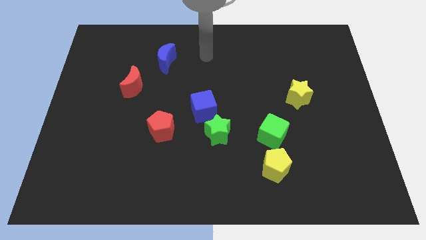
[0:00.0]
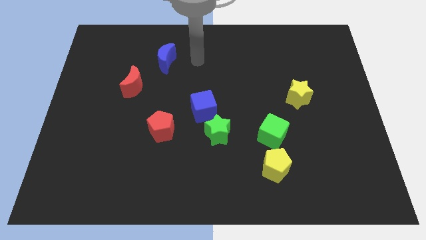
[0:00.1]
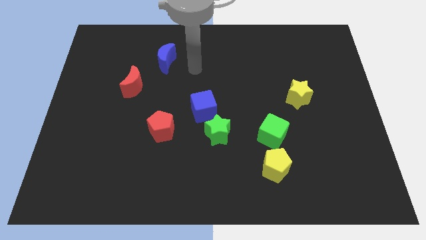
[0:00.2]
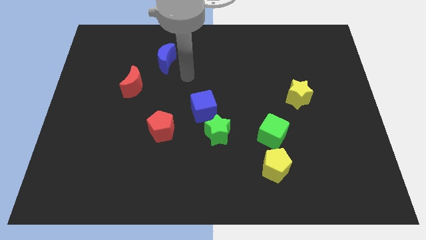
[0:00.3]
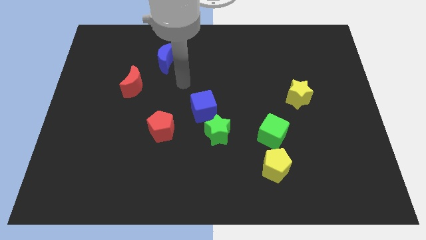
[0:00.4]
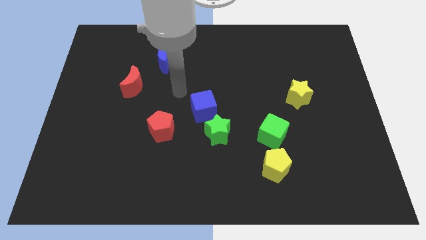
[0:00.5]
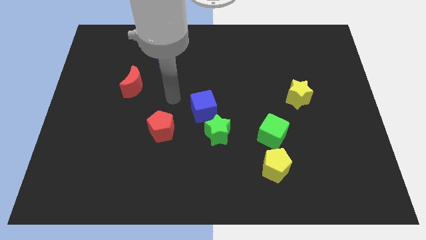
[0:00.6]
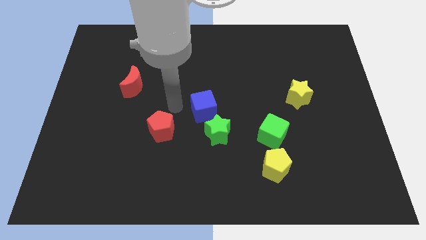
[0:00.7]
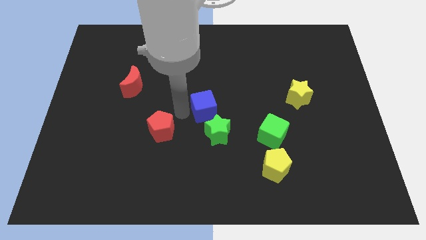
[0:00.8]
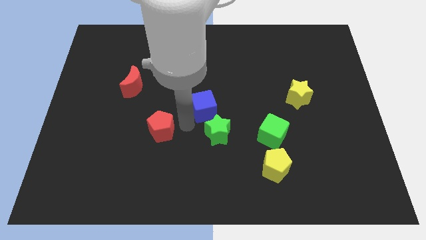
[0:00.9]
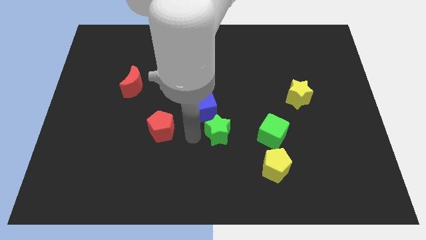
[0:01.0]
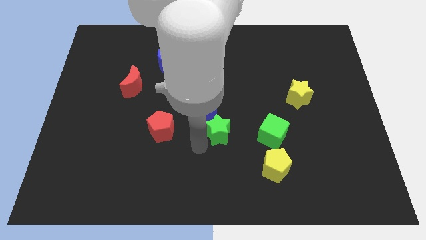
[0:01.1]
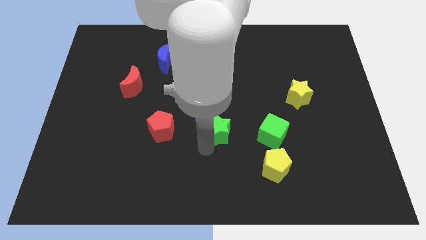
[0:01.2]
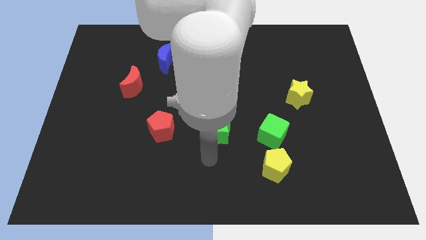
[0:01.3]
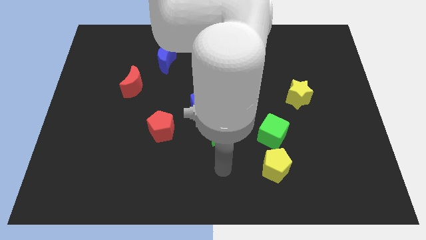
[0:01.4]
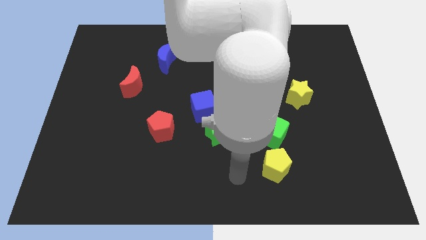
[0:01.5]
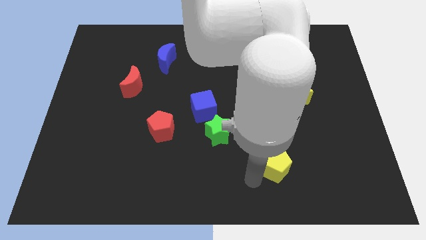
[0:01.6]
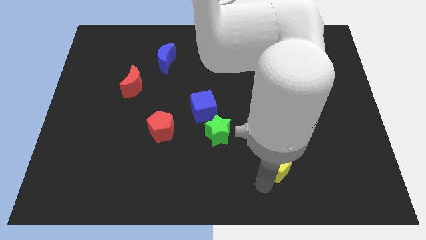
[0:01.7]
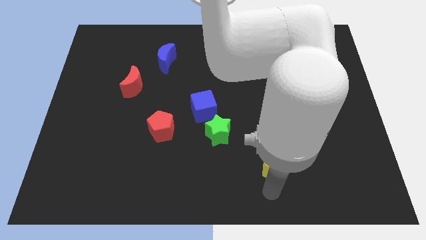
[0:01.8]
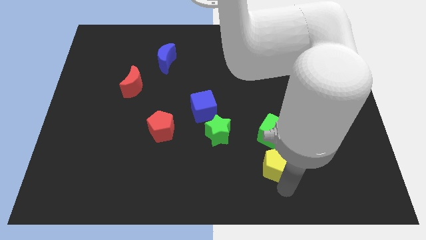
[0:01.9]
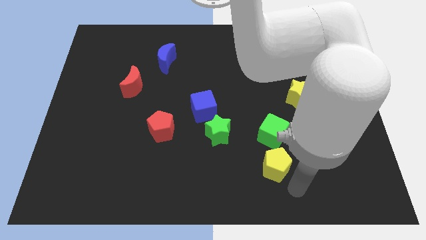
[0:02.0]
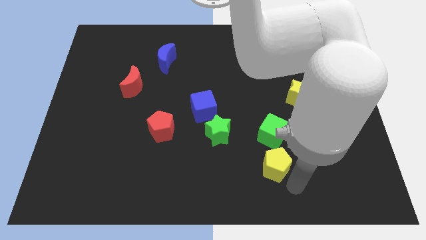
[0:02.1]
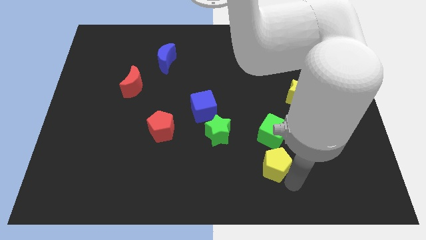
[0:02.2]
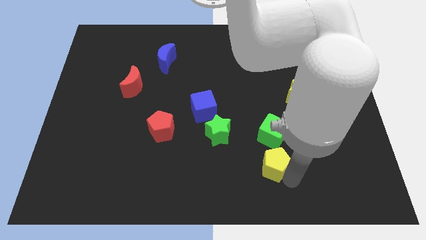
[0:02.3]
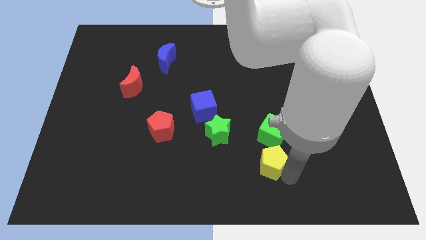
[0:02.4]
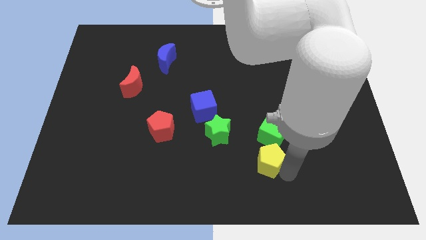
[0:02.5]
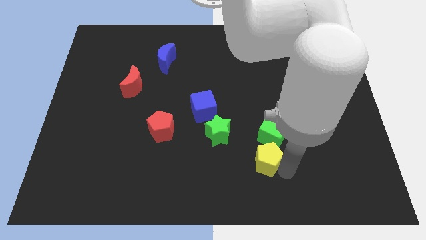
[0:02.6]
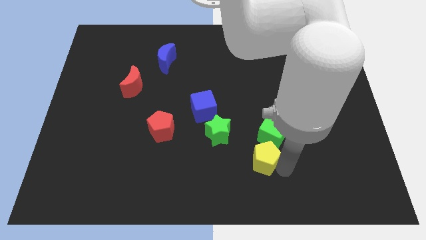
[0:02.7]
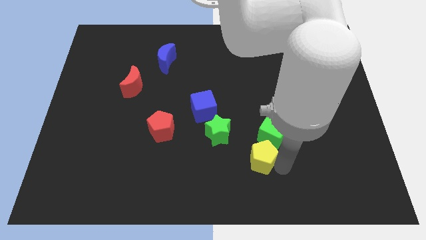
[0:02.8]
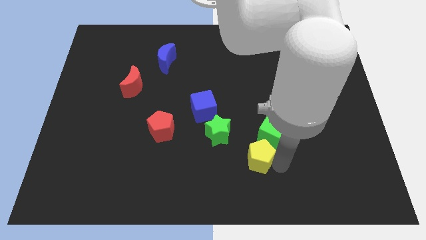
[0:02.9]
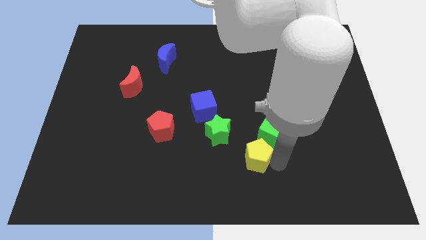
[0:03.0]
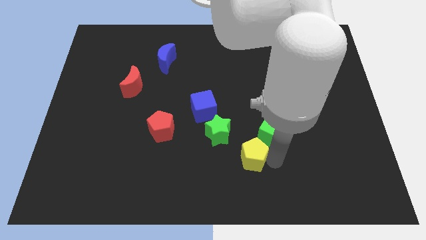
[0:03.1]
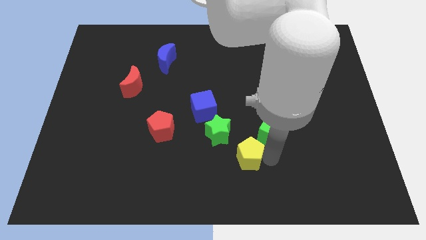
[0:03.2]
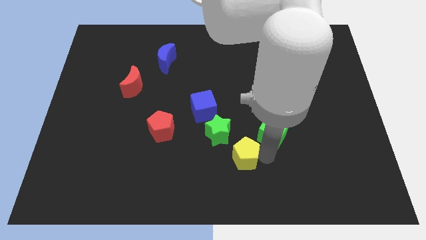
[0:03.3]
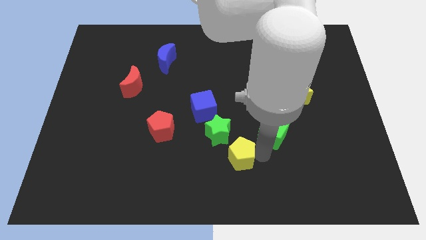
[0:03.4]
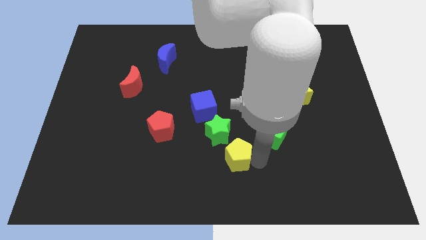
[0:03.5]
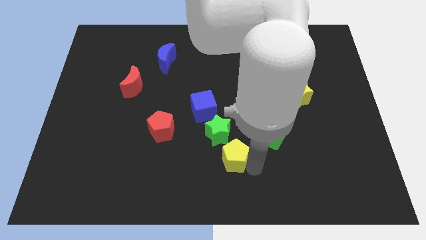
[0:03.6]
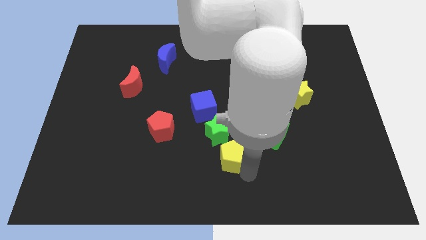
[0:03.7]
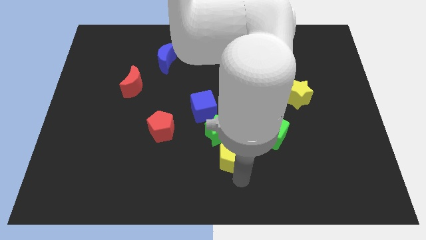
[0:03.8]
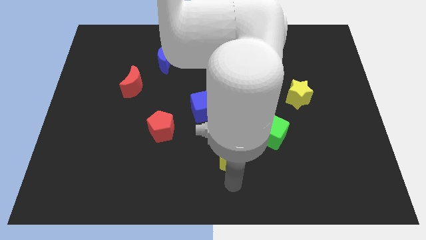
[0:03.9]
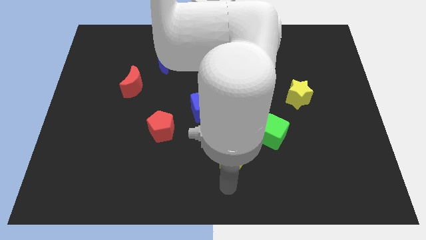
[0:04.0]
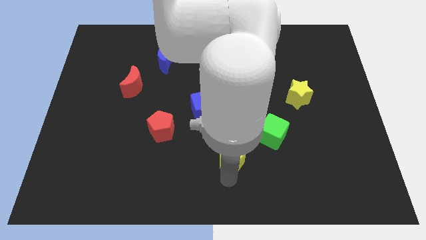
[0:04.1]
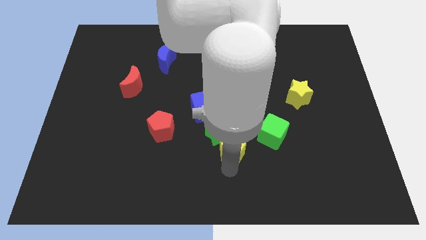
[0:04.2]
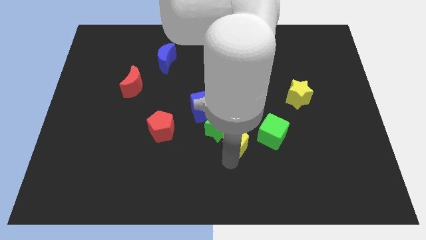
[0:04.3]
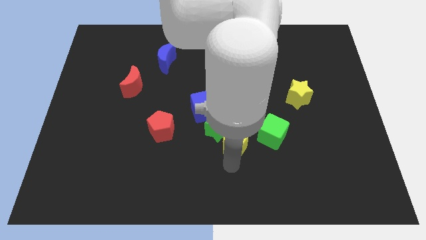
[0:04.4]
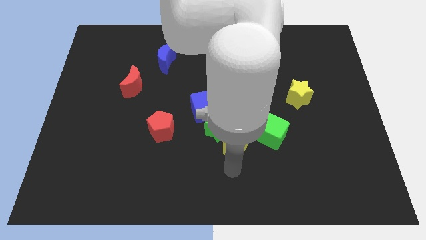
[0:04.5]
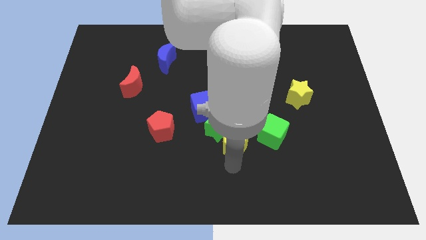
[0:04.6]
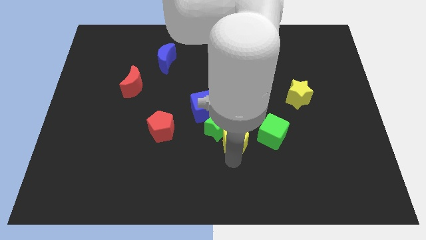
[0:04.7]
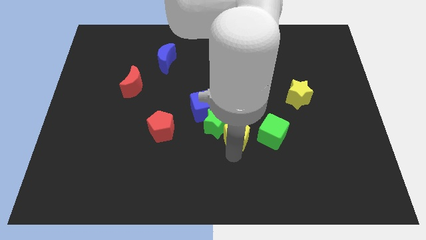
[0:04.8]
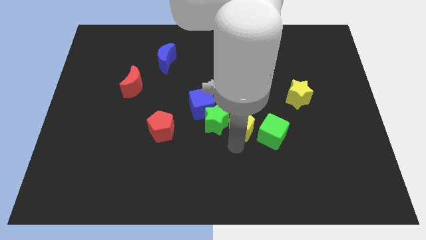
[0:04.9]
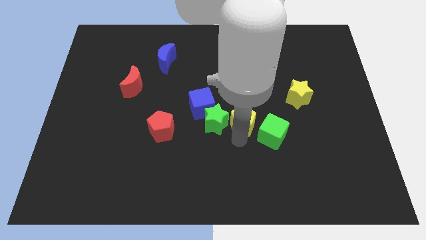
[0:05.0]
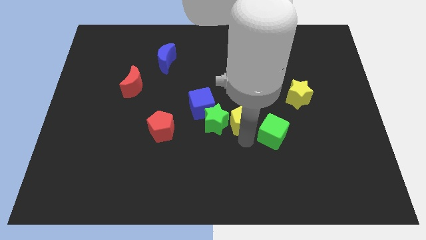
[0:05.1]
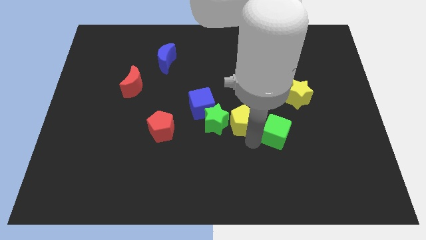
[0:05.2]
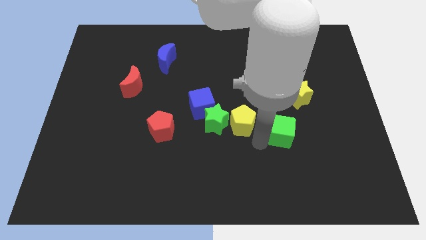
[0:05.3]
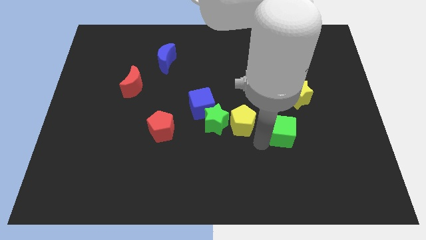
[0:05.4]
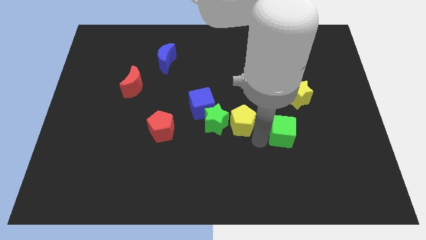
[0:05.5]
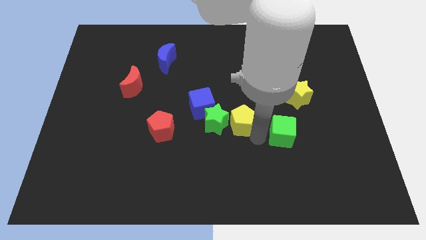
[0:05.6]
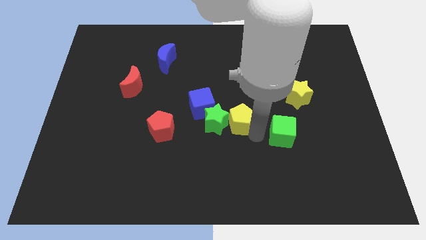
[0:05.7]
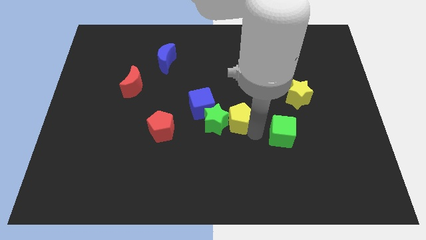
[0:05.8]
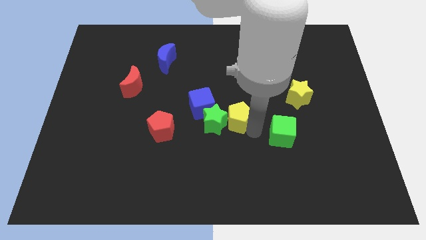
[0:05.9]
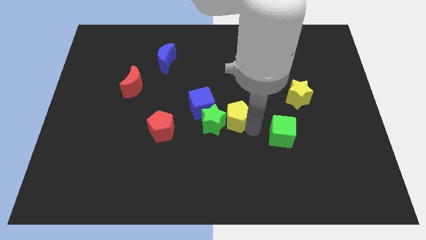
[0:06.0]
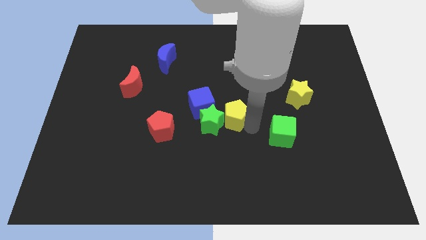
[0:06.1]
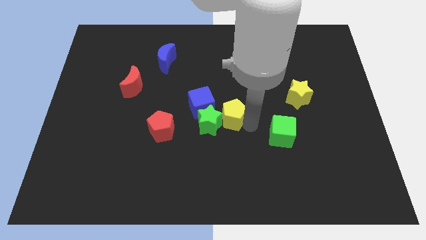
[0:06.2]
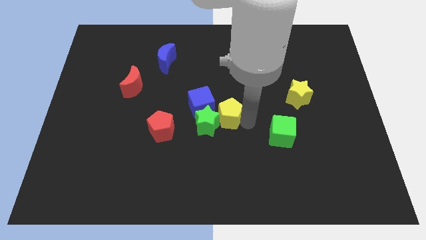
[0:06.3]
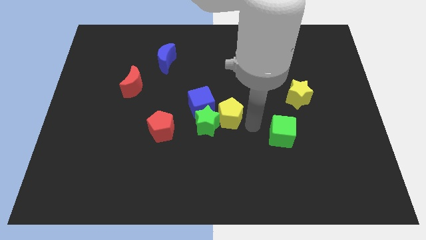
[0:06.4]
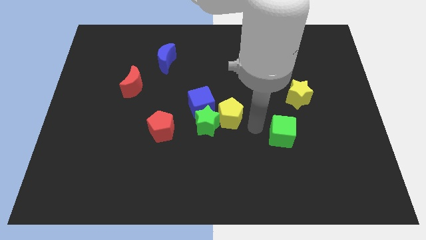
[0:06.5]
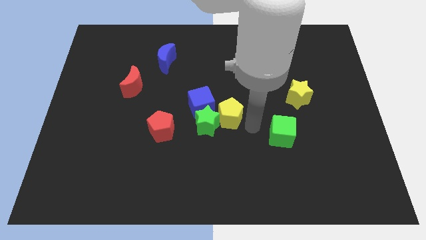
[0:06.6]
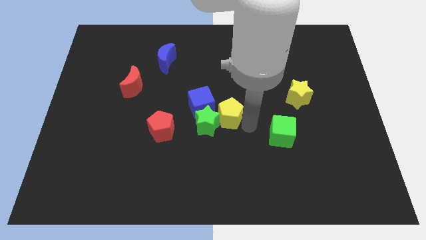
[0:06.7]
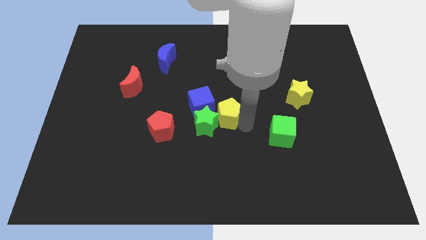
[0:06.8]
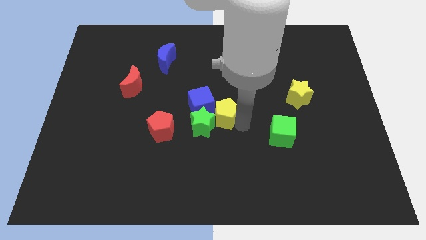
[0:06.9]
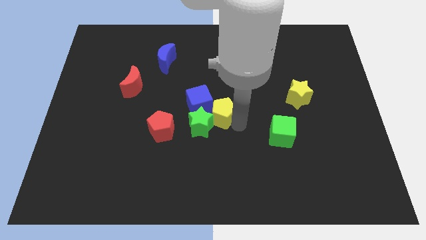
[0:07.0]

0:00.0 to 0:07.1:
push the yellow pentagon close to the blue cube
